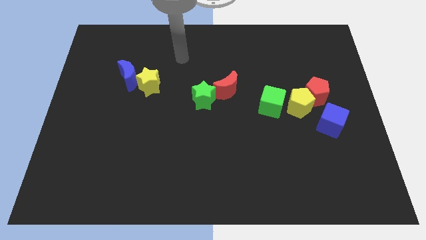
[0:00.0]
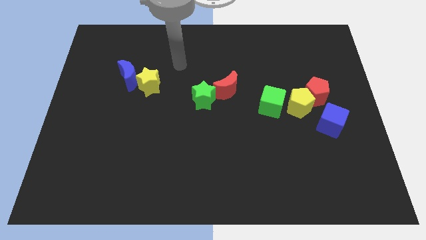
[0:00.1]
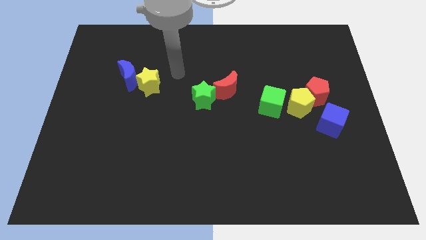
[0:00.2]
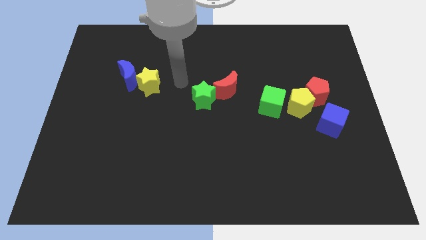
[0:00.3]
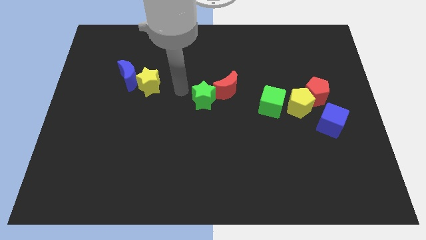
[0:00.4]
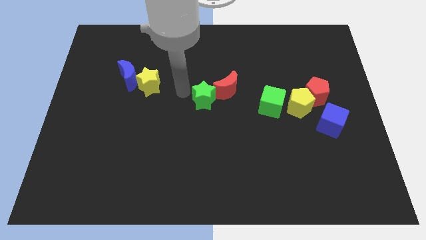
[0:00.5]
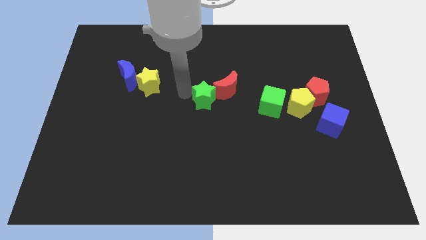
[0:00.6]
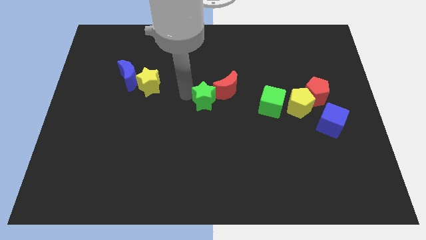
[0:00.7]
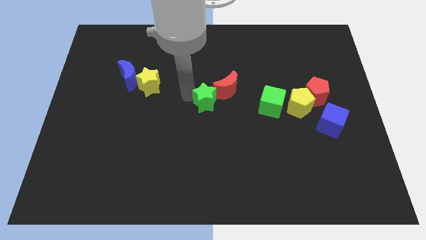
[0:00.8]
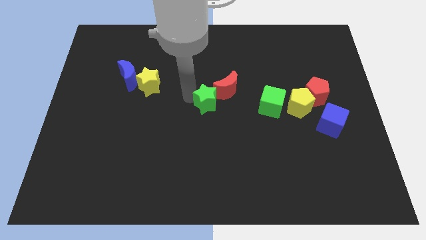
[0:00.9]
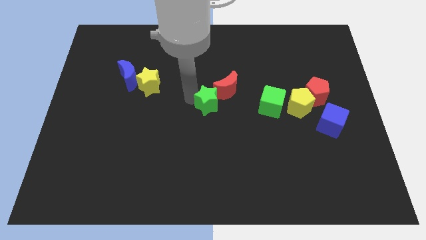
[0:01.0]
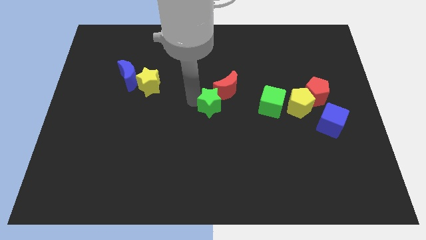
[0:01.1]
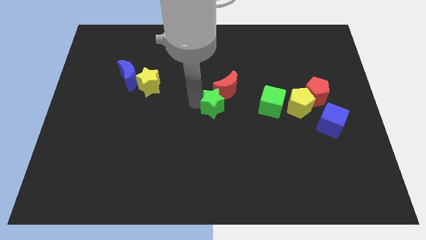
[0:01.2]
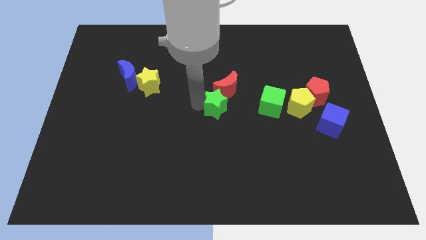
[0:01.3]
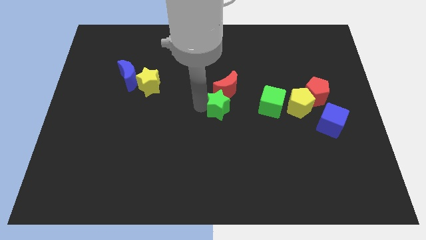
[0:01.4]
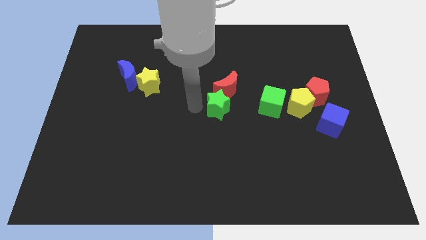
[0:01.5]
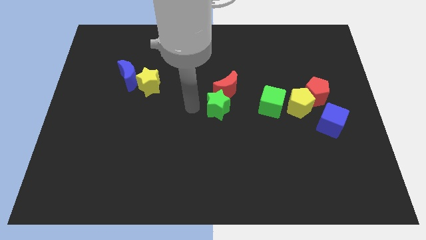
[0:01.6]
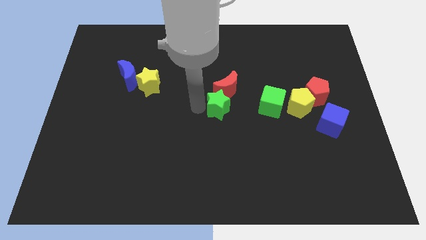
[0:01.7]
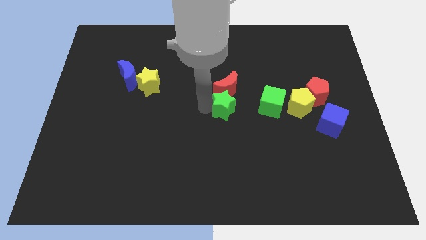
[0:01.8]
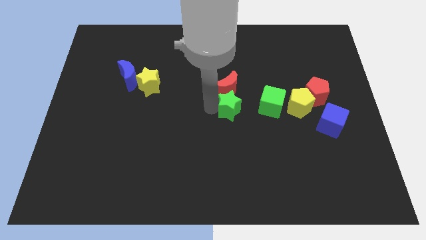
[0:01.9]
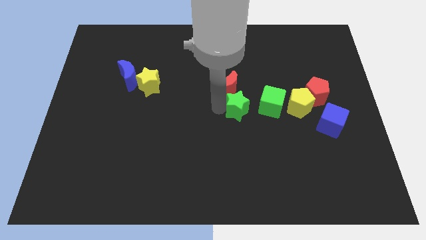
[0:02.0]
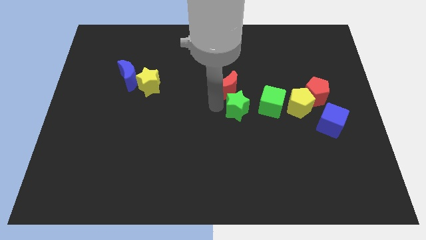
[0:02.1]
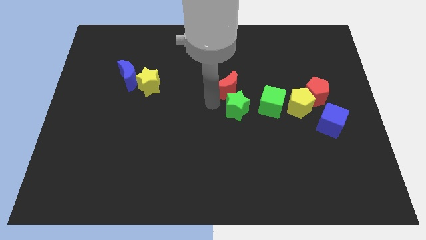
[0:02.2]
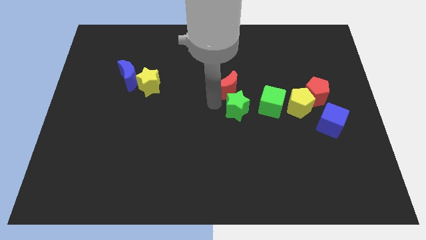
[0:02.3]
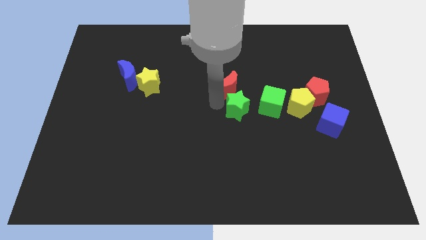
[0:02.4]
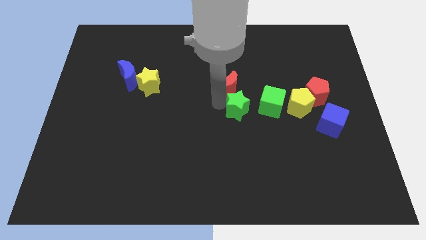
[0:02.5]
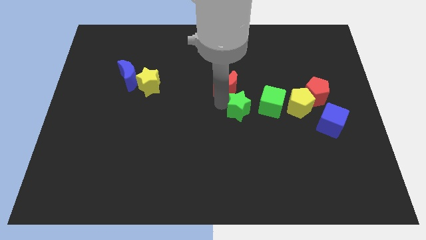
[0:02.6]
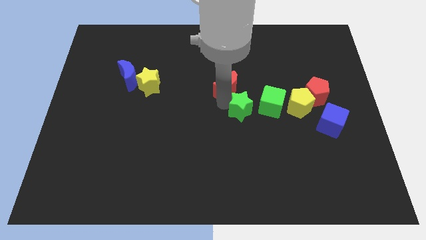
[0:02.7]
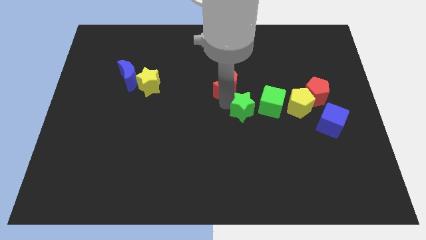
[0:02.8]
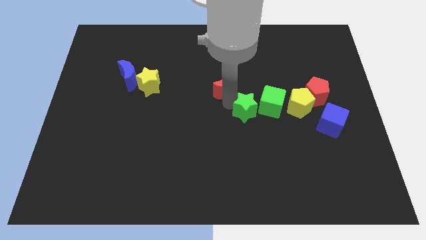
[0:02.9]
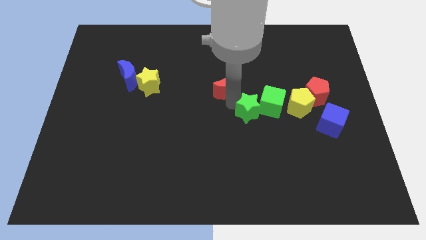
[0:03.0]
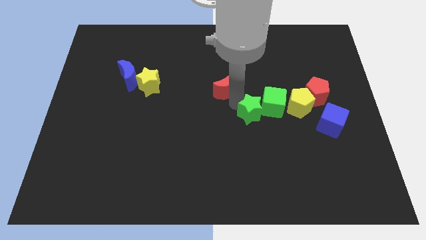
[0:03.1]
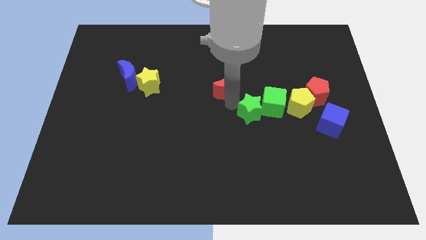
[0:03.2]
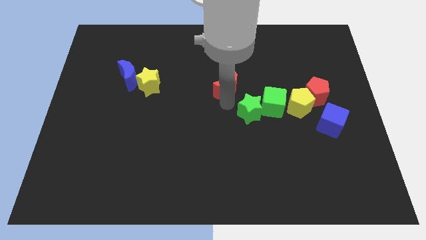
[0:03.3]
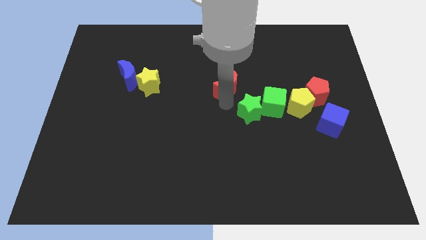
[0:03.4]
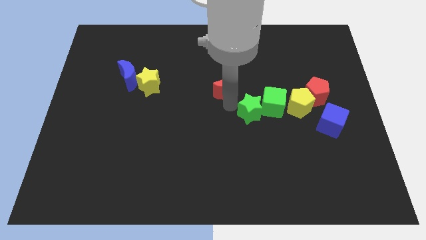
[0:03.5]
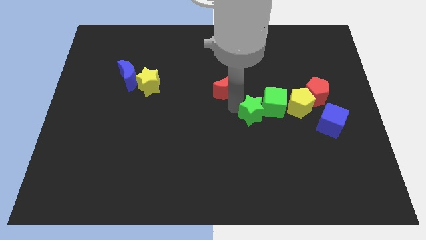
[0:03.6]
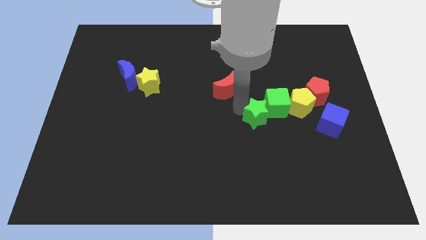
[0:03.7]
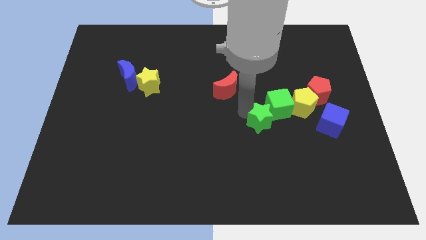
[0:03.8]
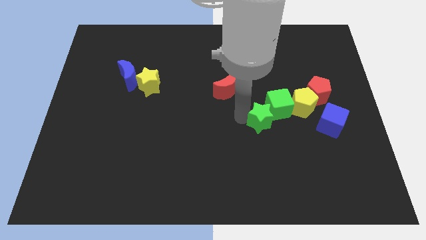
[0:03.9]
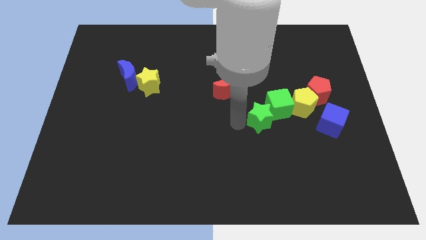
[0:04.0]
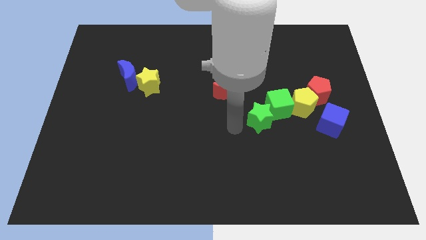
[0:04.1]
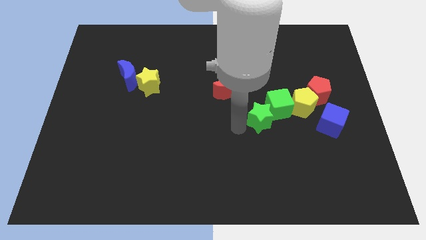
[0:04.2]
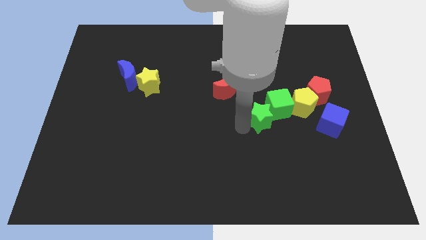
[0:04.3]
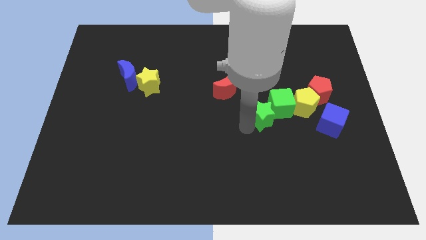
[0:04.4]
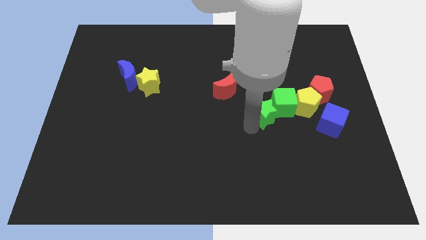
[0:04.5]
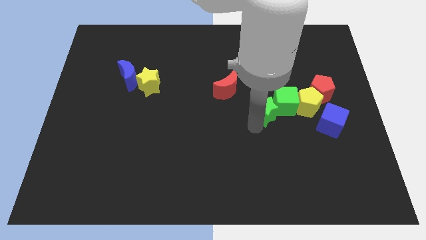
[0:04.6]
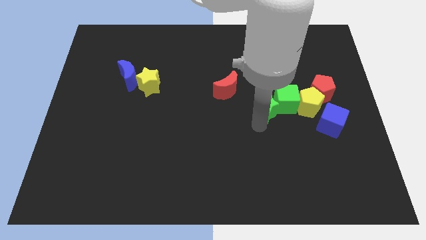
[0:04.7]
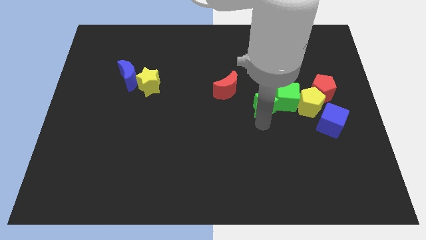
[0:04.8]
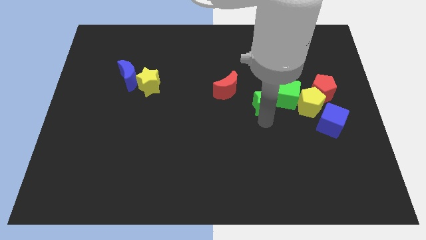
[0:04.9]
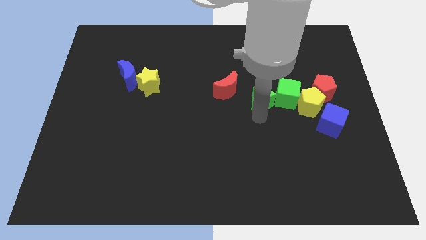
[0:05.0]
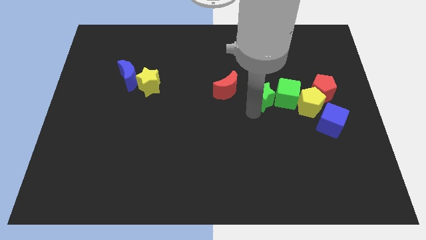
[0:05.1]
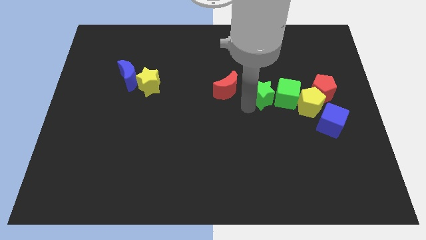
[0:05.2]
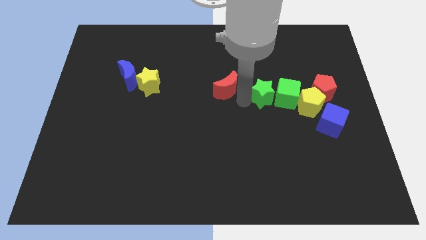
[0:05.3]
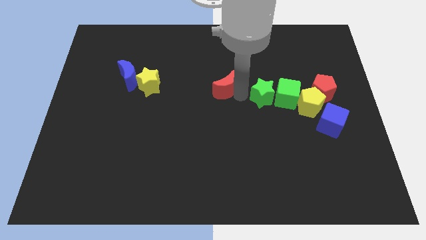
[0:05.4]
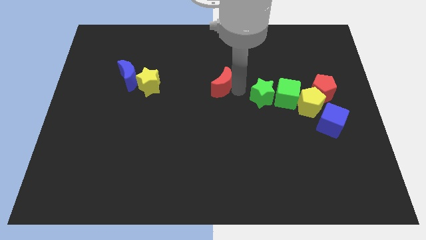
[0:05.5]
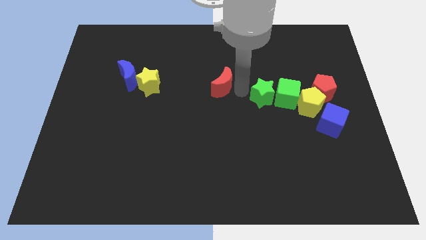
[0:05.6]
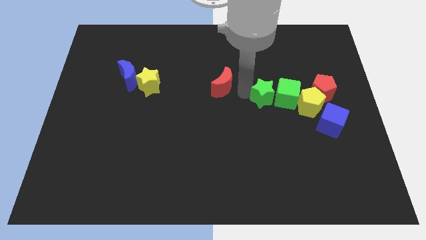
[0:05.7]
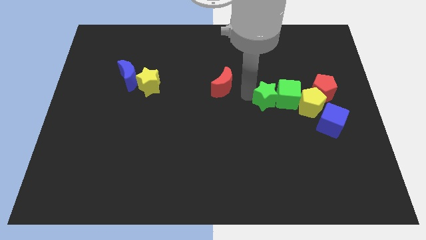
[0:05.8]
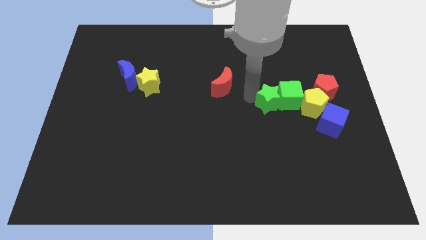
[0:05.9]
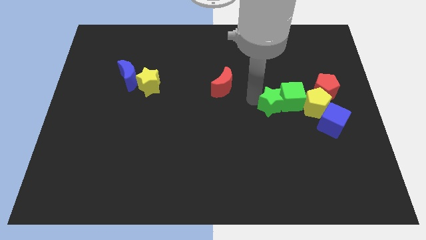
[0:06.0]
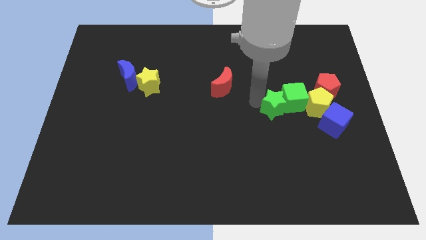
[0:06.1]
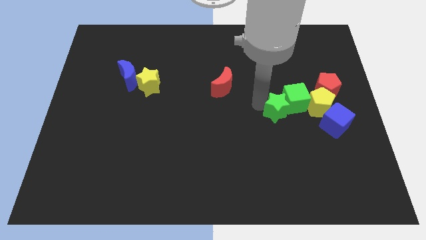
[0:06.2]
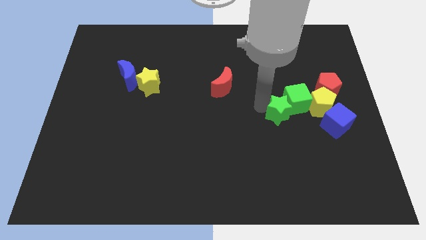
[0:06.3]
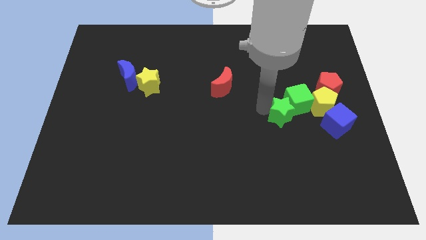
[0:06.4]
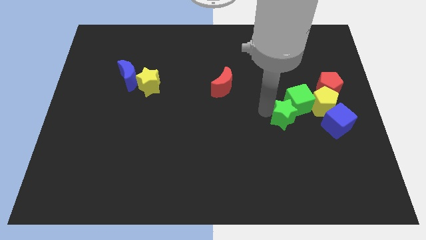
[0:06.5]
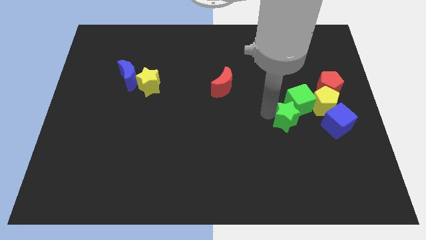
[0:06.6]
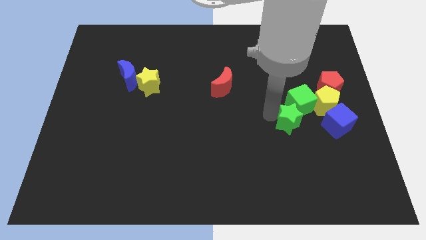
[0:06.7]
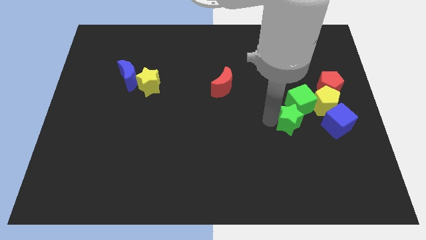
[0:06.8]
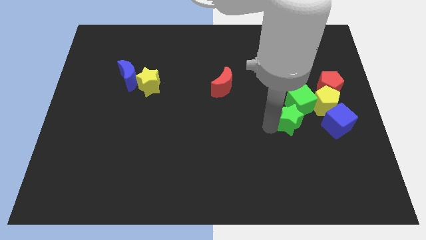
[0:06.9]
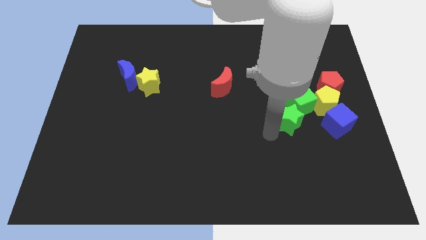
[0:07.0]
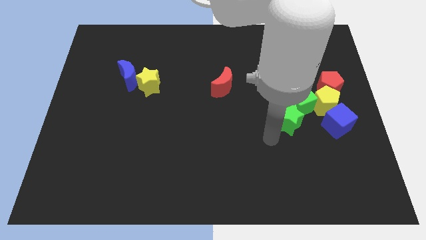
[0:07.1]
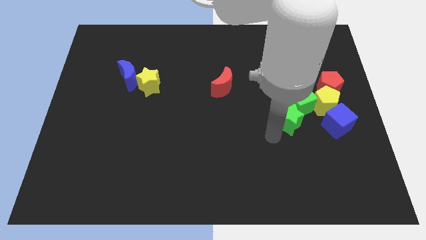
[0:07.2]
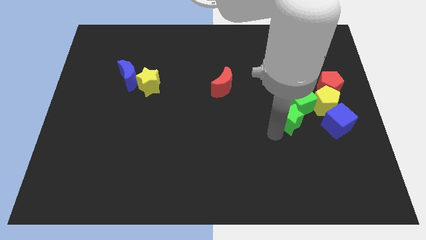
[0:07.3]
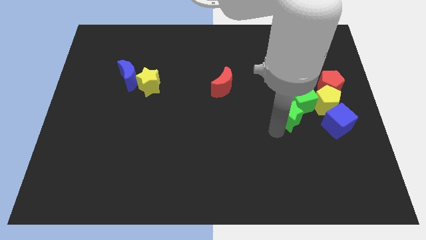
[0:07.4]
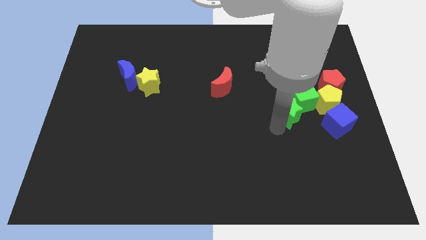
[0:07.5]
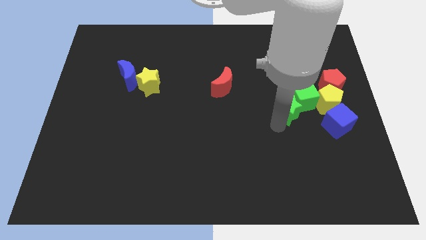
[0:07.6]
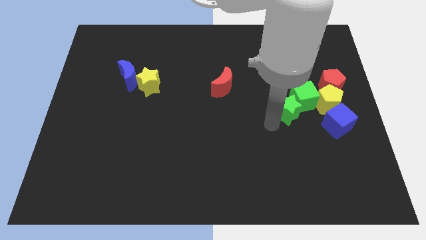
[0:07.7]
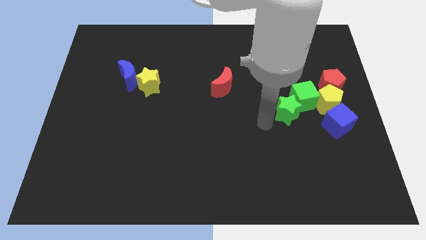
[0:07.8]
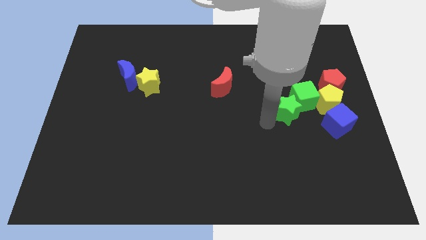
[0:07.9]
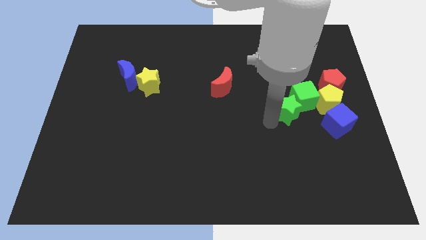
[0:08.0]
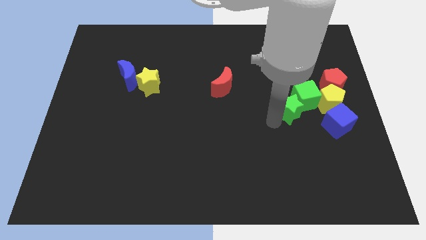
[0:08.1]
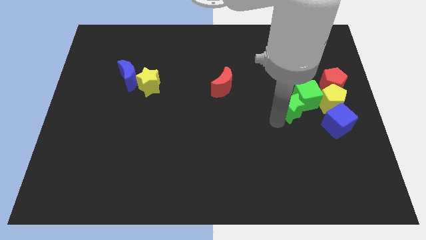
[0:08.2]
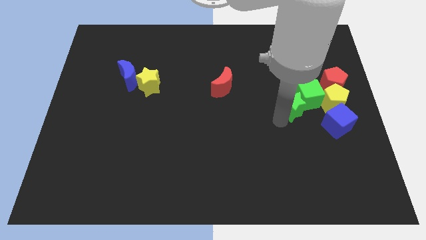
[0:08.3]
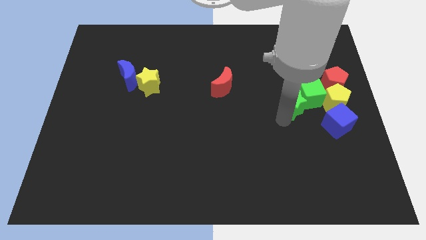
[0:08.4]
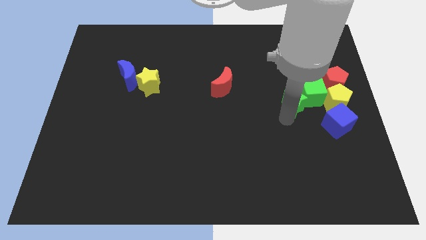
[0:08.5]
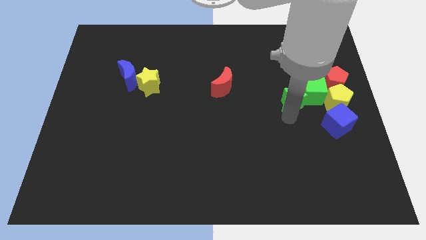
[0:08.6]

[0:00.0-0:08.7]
move the green star diagonally down and to the left of the red pentagon
